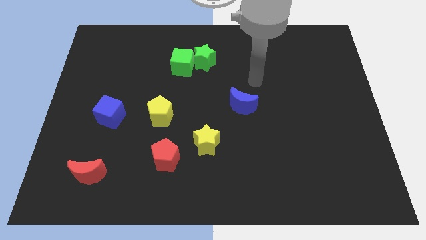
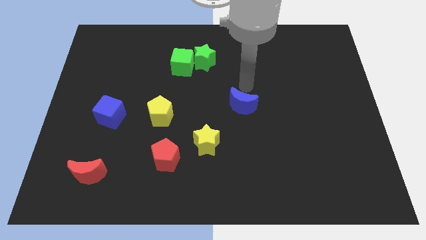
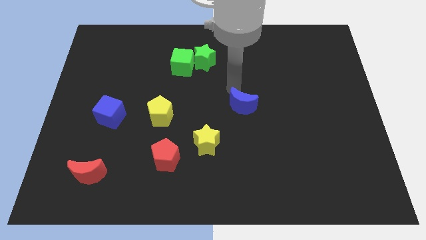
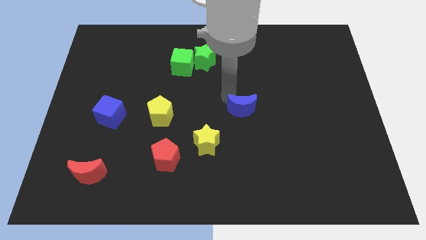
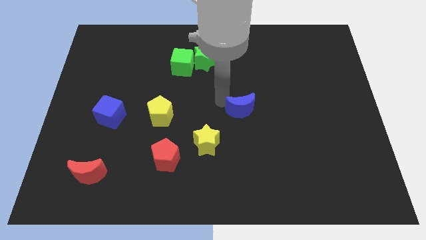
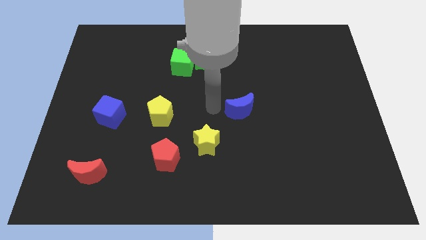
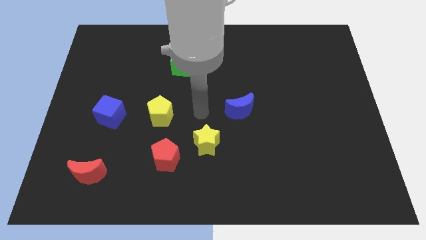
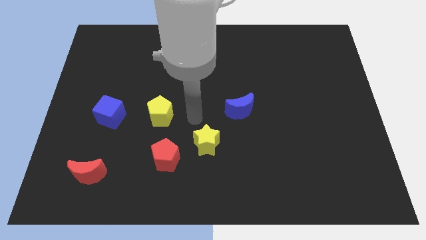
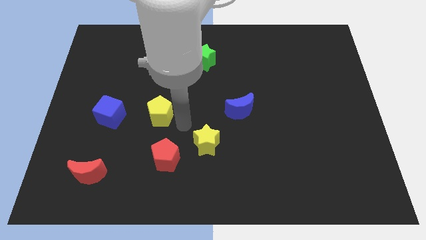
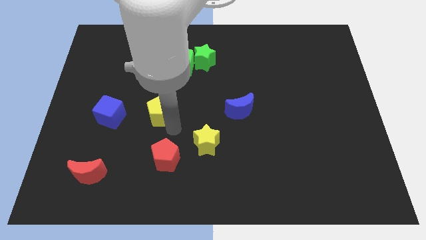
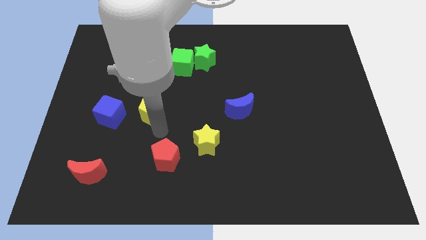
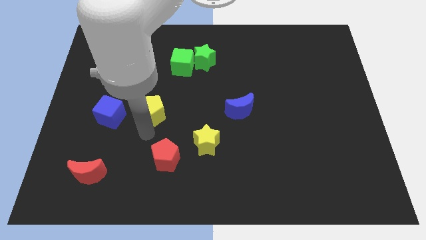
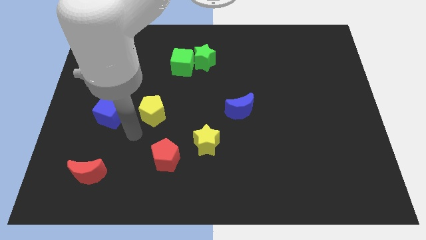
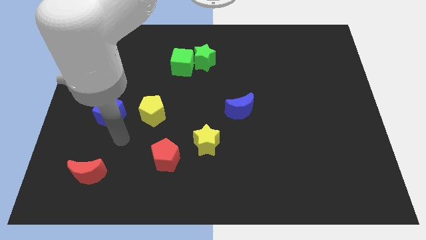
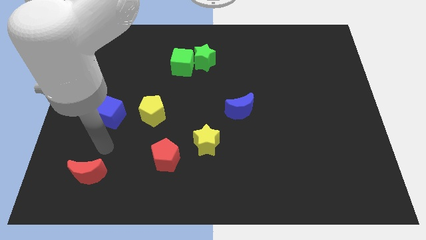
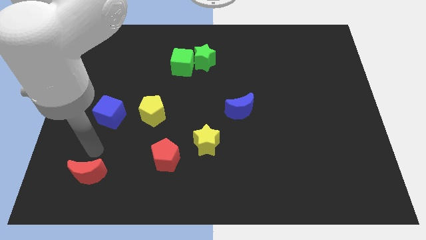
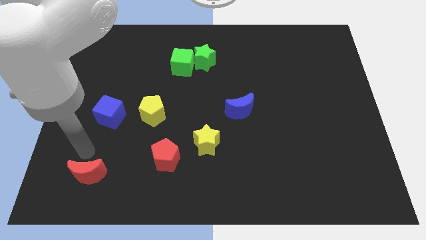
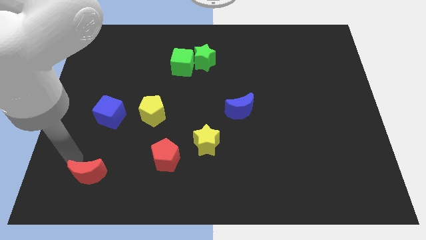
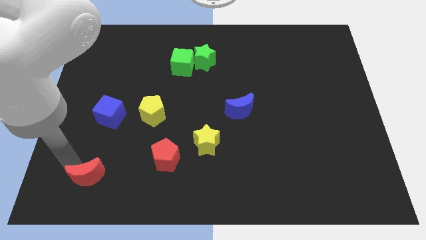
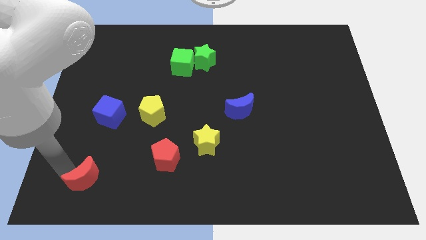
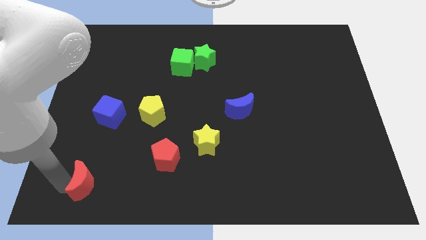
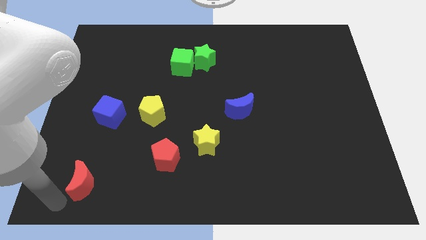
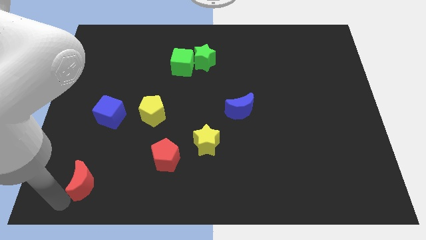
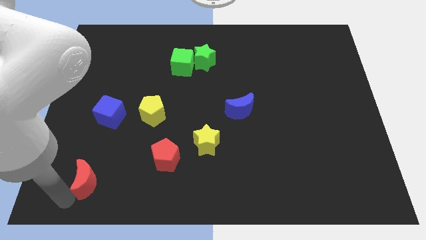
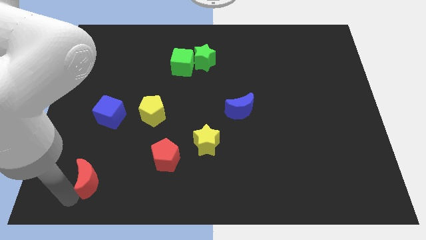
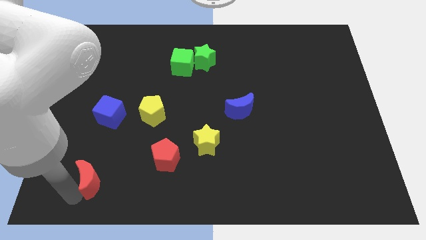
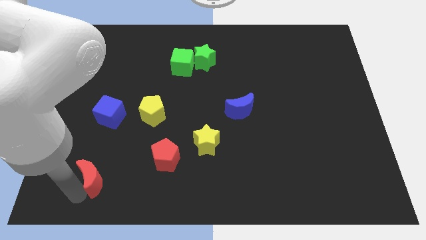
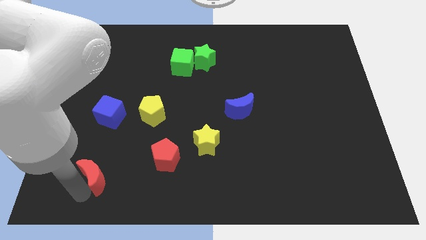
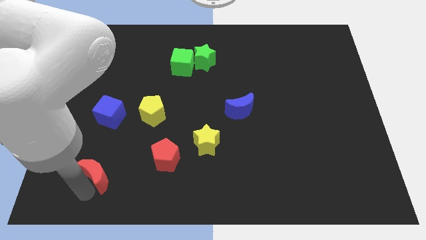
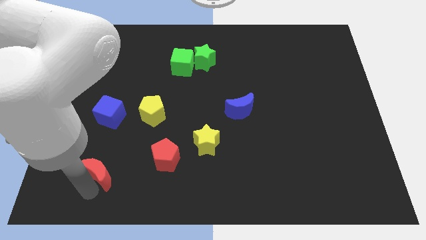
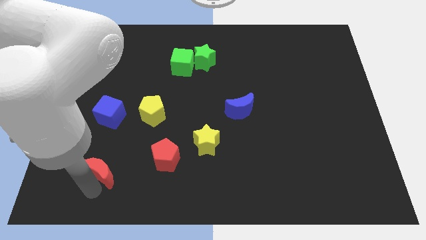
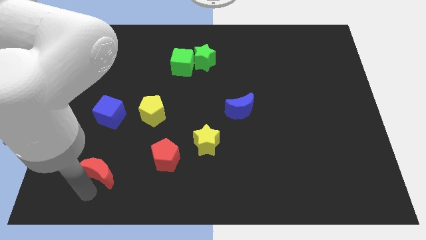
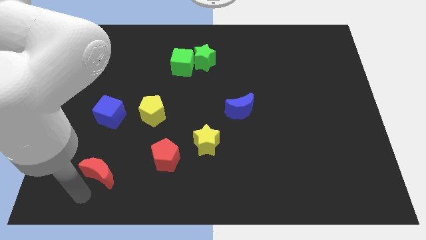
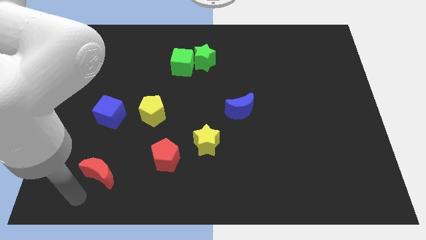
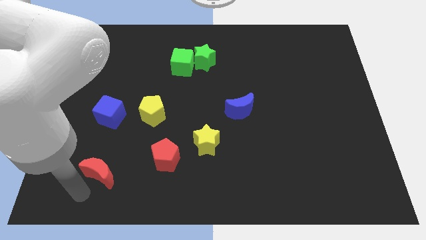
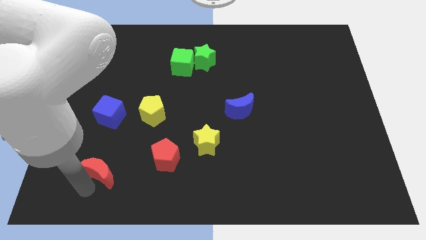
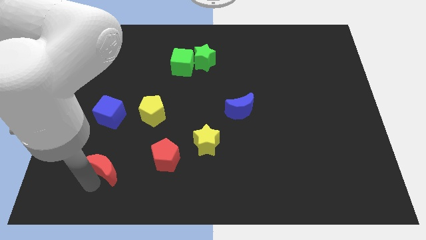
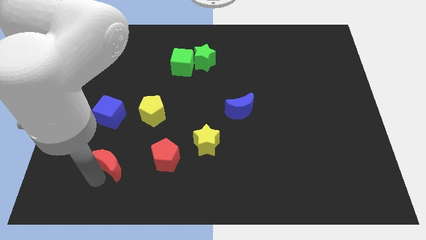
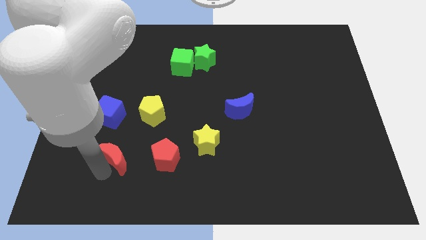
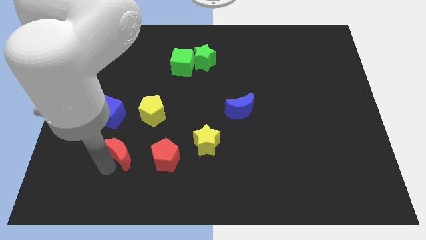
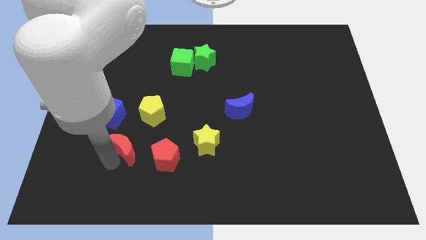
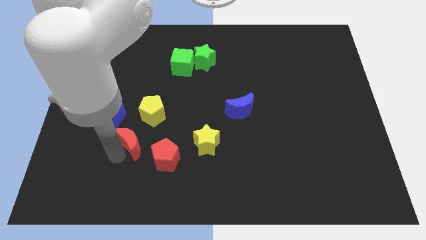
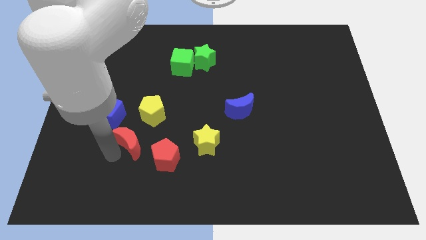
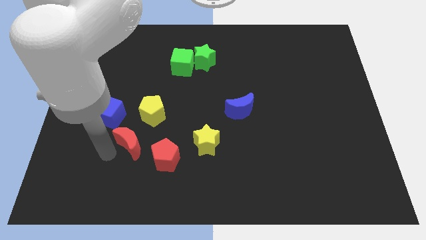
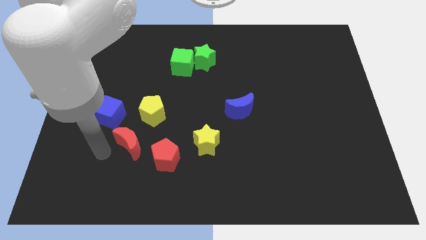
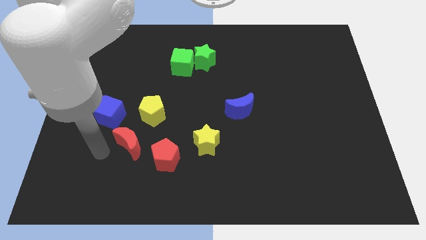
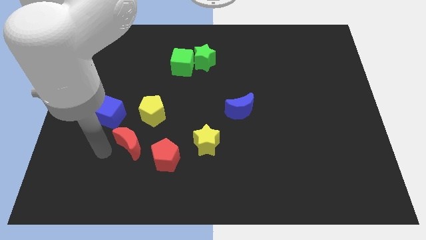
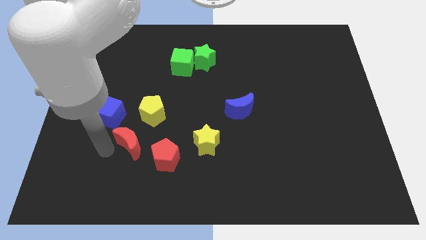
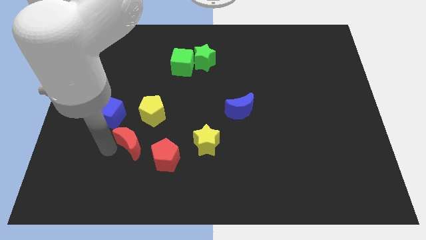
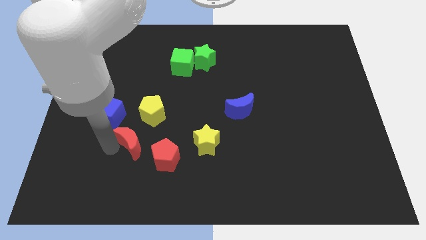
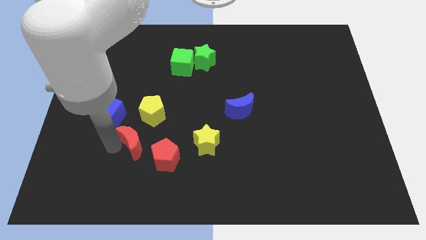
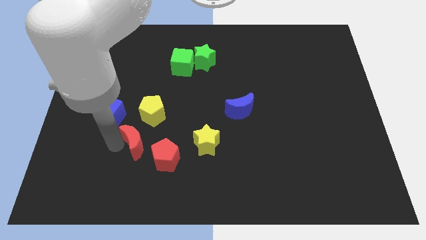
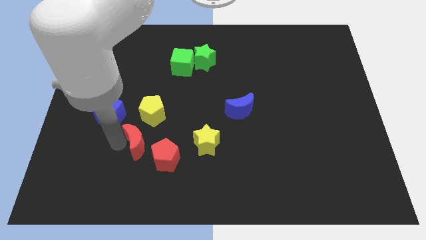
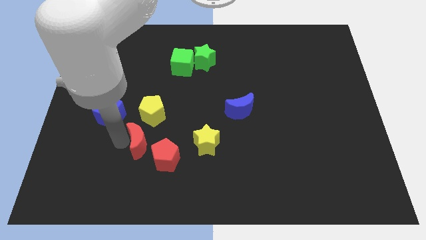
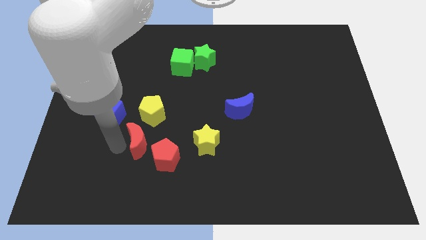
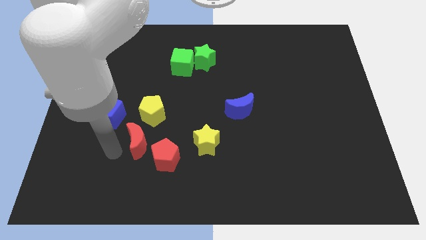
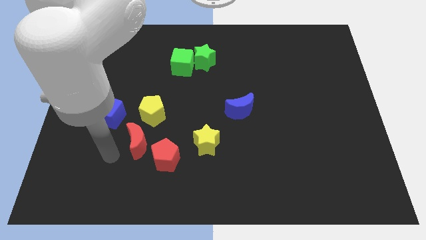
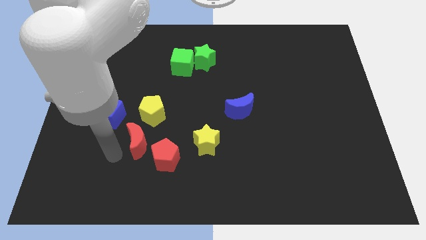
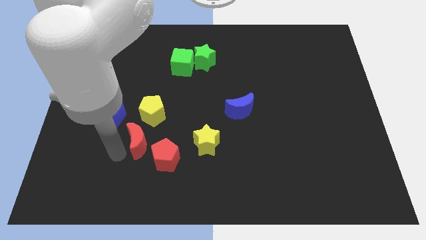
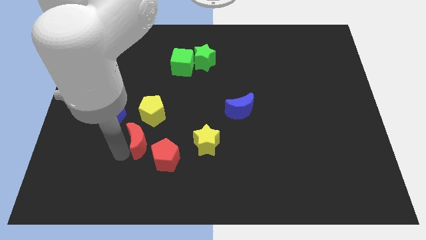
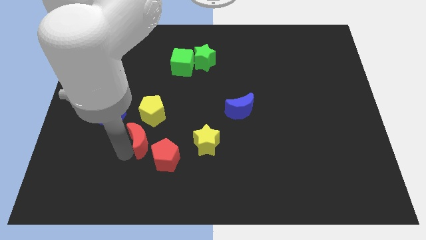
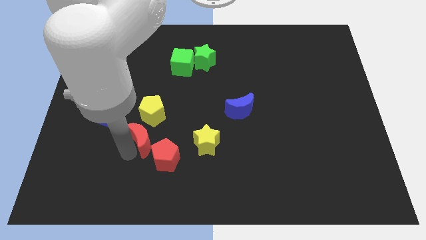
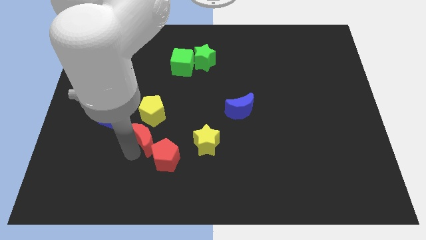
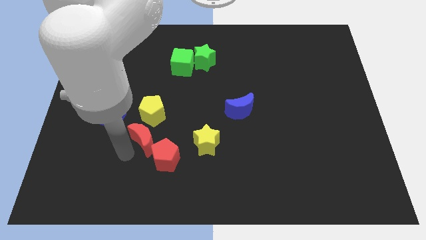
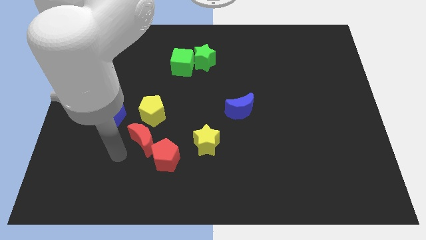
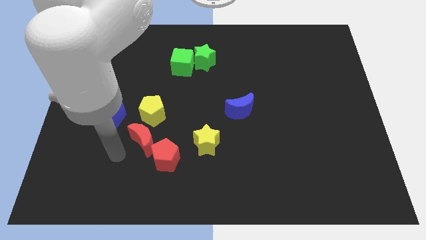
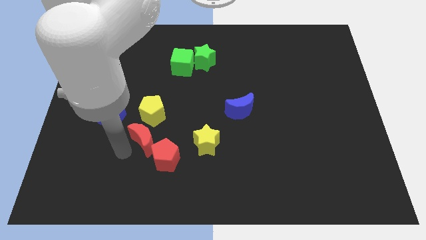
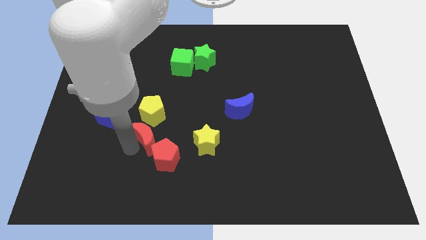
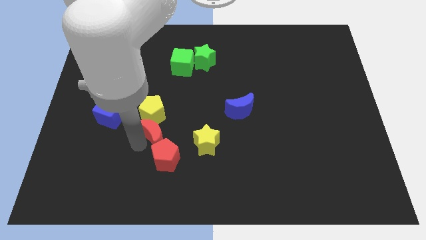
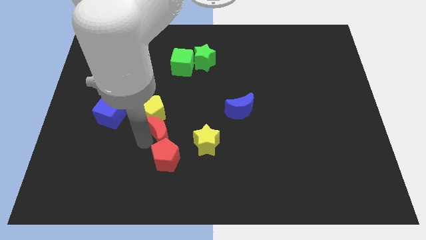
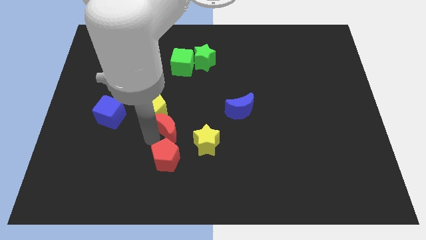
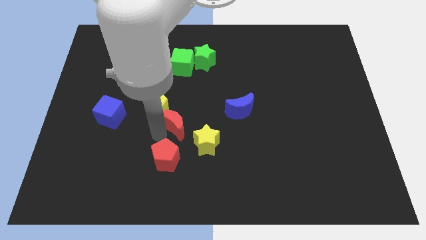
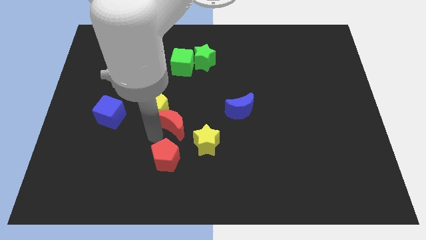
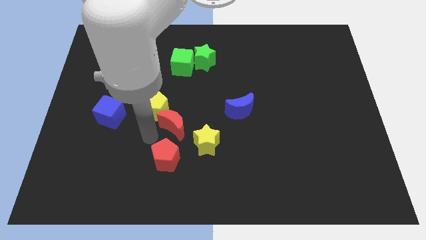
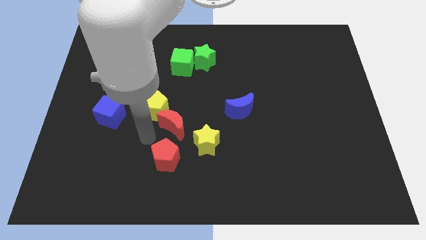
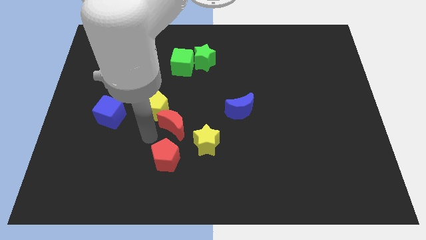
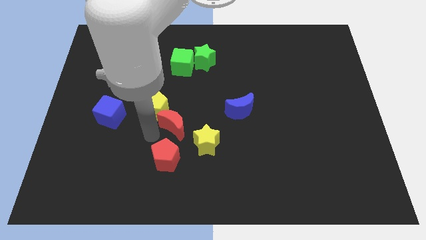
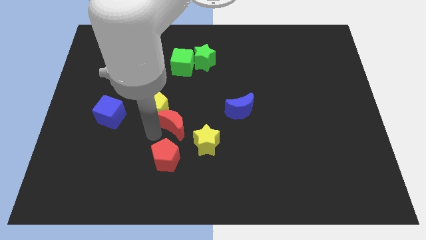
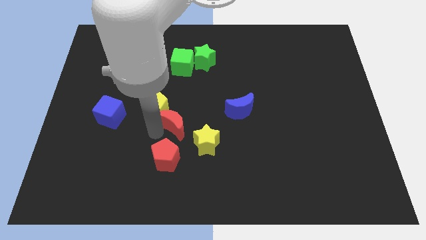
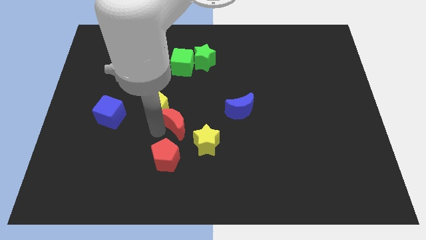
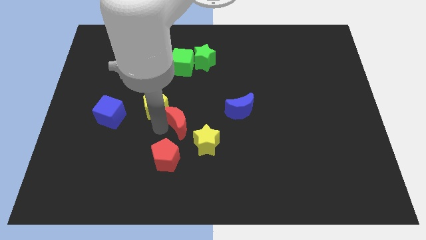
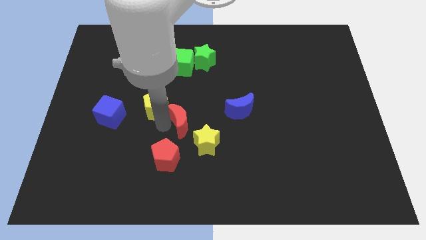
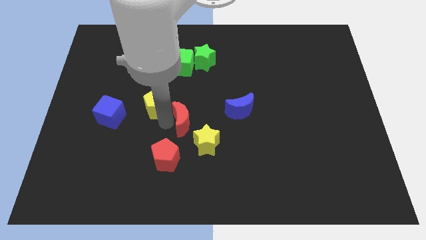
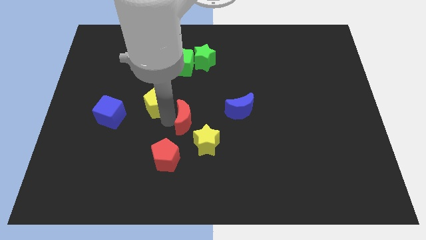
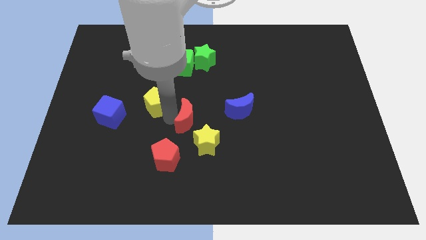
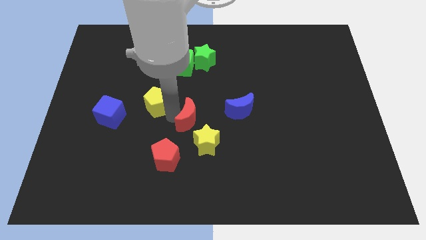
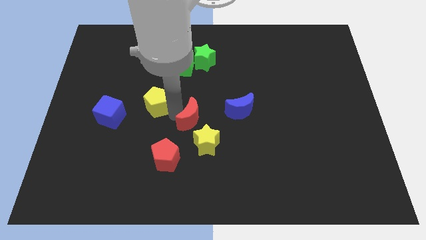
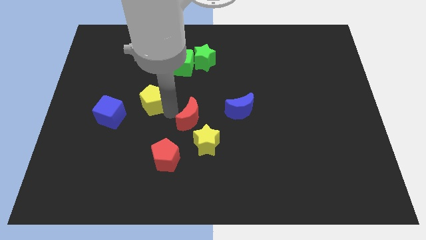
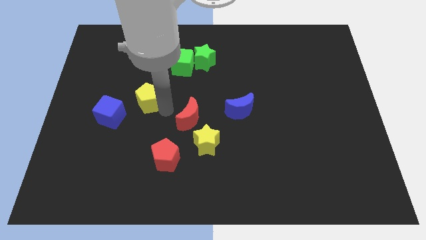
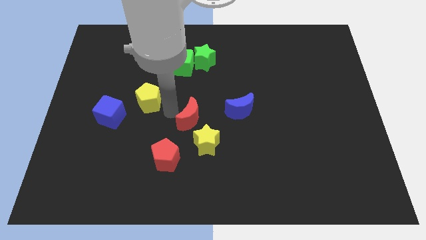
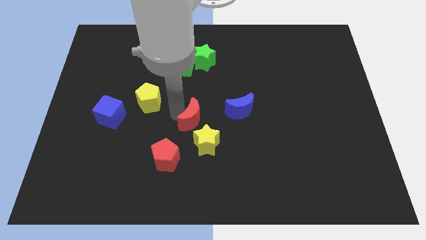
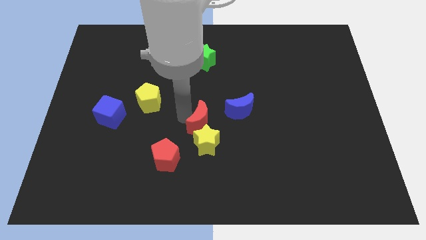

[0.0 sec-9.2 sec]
push the red moon diagonally down and to the left of the blue moon
